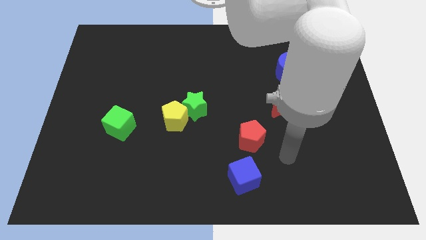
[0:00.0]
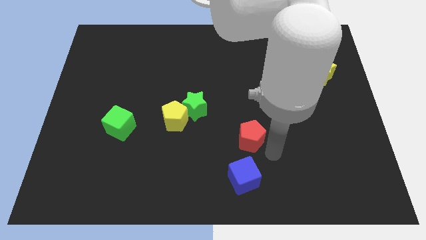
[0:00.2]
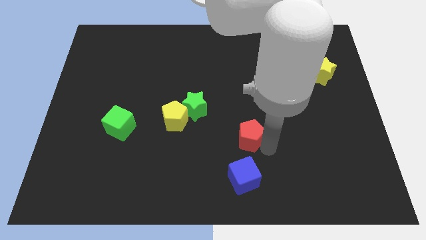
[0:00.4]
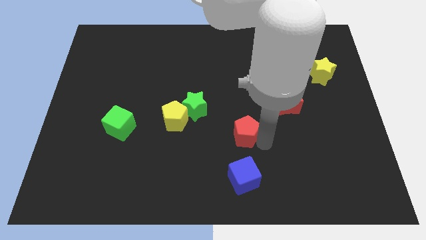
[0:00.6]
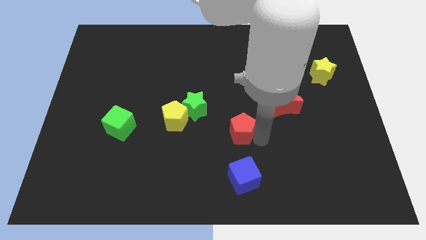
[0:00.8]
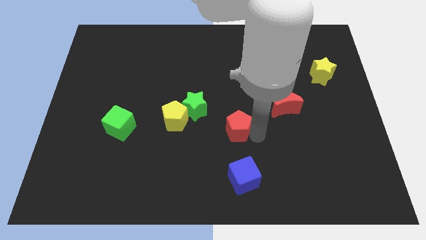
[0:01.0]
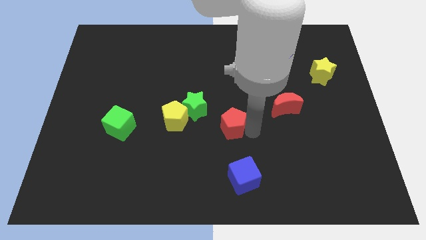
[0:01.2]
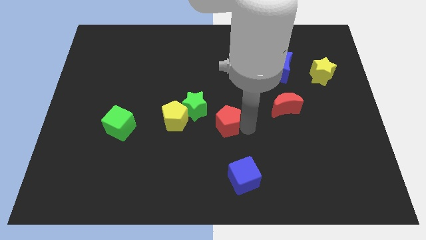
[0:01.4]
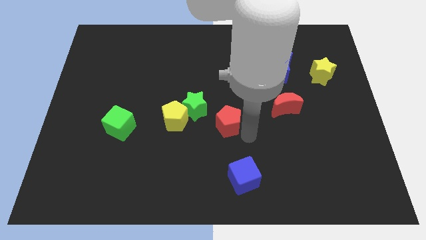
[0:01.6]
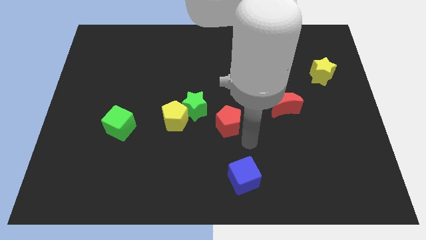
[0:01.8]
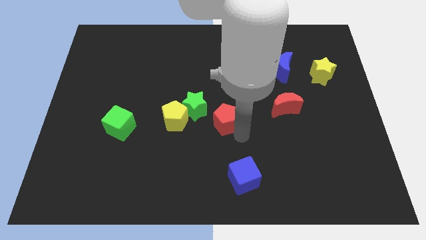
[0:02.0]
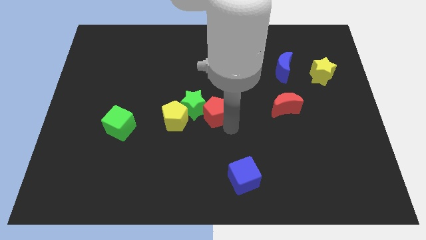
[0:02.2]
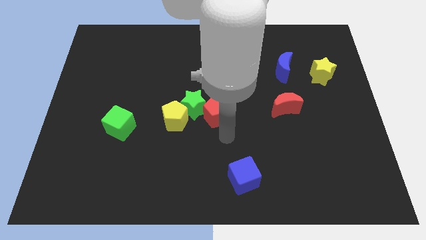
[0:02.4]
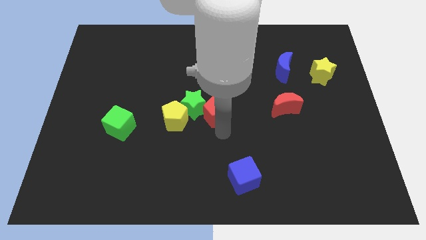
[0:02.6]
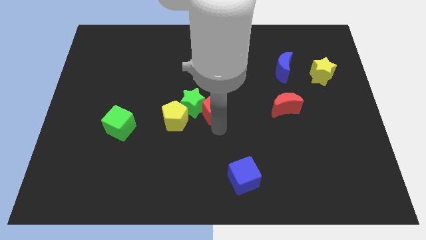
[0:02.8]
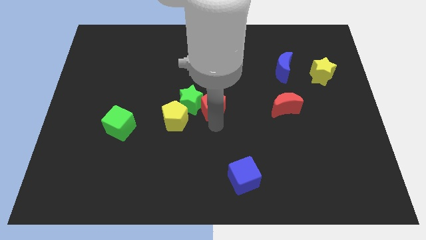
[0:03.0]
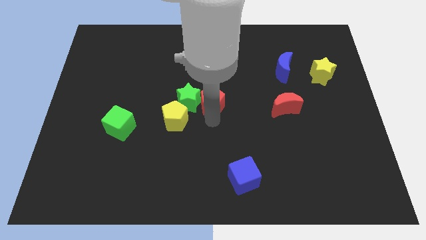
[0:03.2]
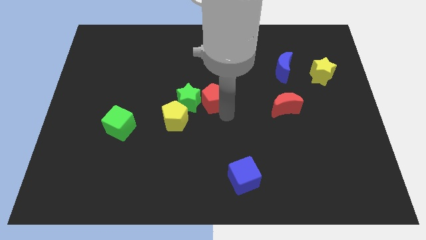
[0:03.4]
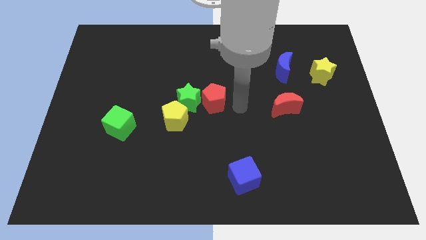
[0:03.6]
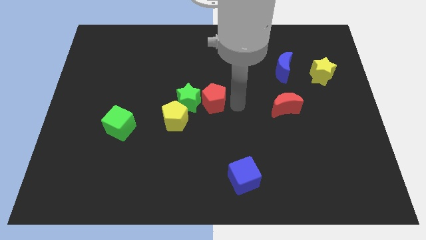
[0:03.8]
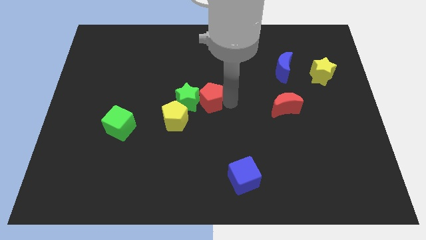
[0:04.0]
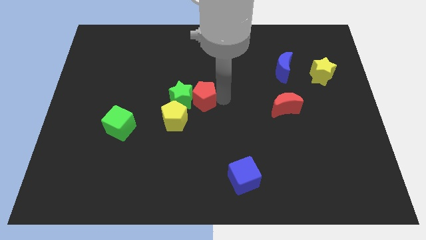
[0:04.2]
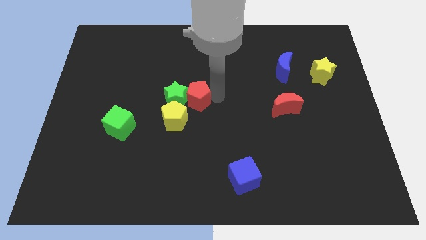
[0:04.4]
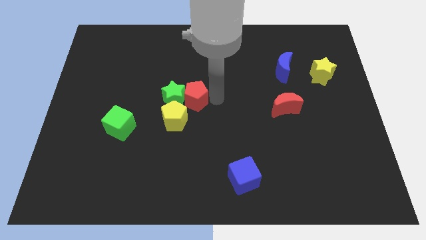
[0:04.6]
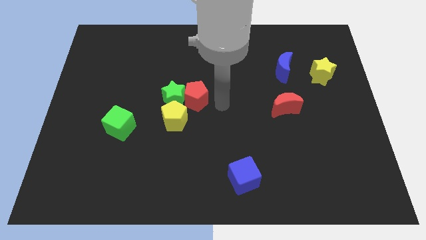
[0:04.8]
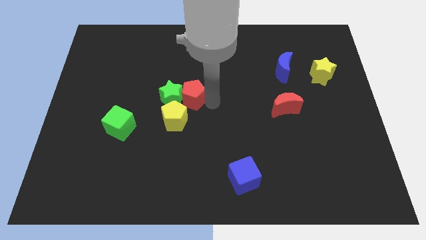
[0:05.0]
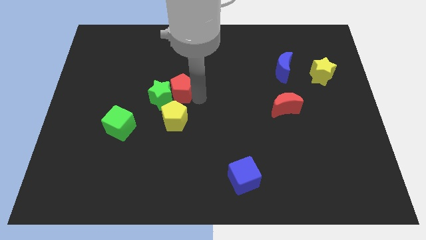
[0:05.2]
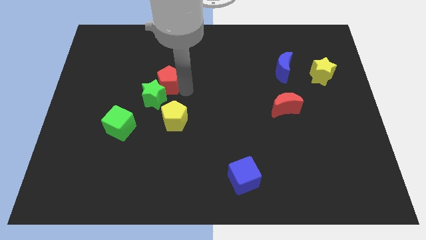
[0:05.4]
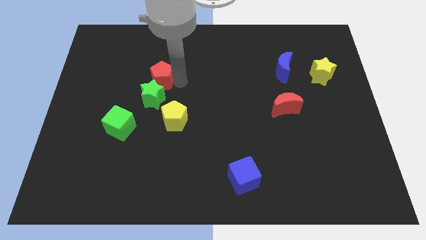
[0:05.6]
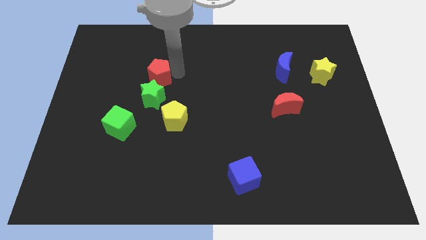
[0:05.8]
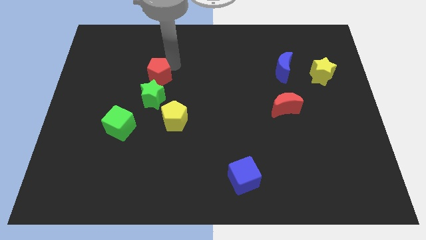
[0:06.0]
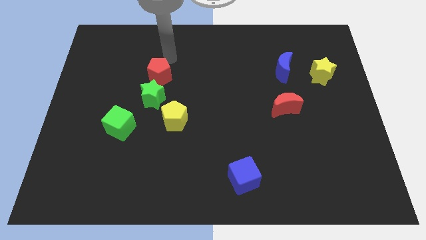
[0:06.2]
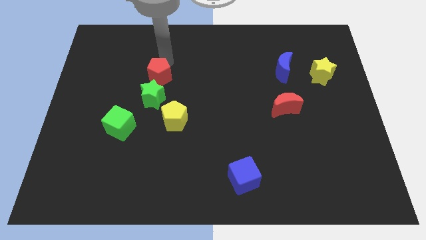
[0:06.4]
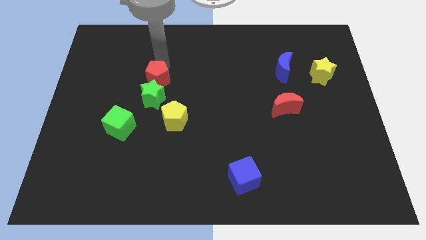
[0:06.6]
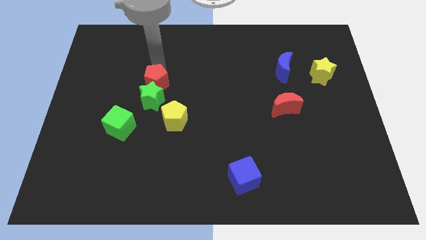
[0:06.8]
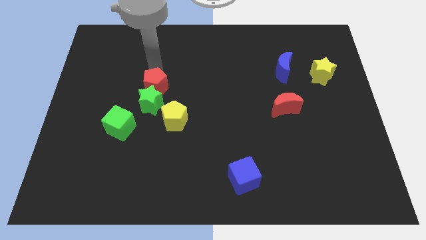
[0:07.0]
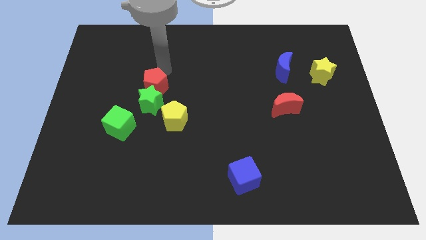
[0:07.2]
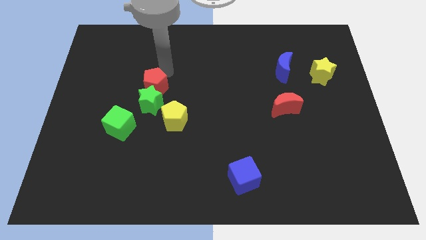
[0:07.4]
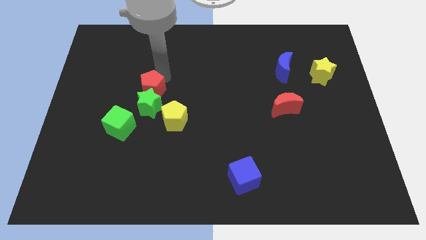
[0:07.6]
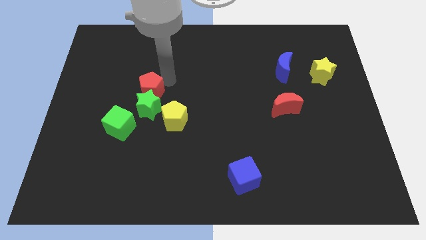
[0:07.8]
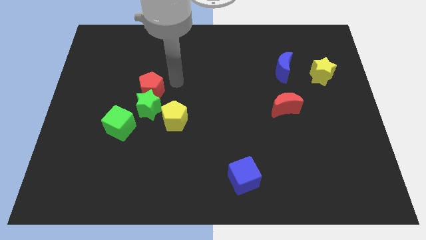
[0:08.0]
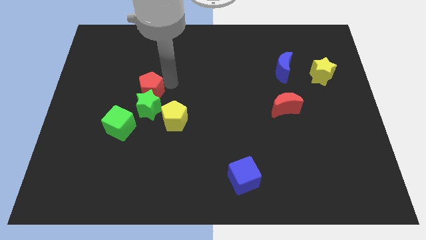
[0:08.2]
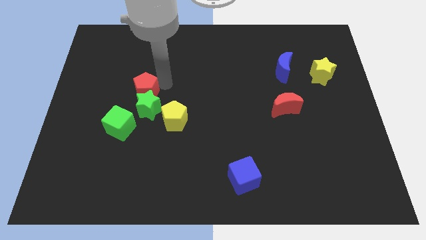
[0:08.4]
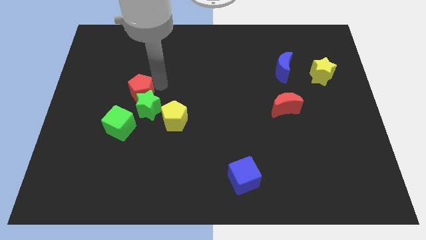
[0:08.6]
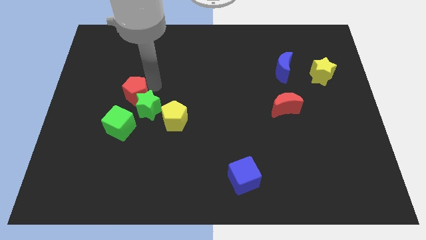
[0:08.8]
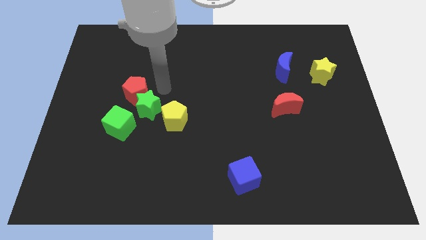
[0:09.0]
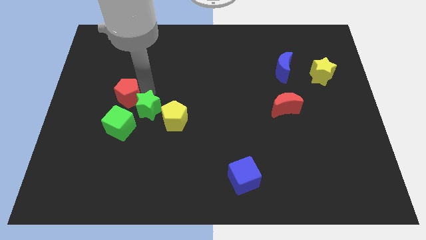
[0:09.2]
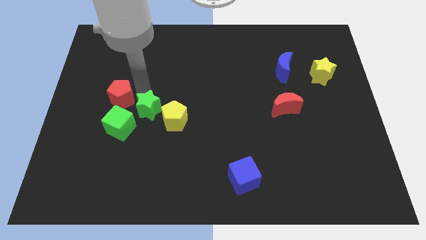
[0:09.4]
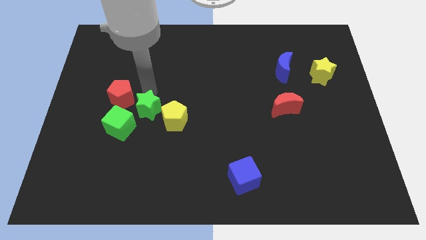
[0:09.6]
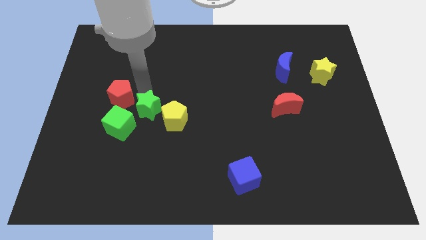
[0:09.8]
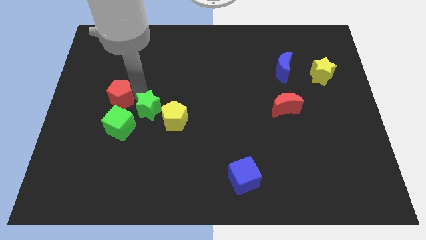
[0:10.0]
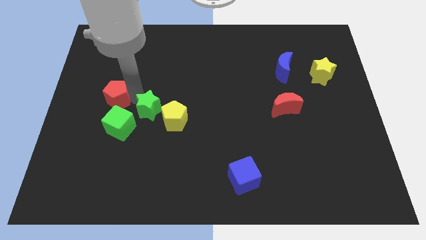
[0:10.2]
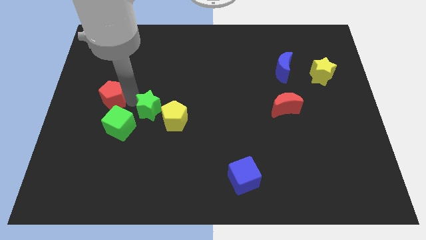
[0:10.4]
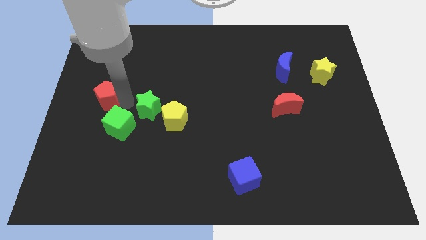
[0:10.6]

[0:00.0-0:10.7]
put the red pentagon to the center left

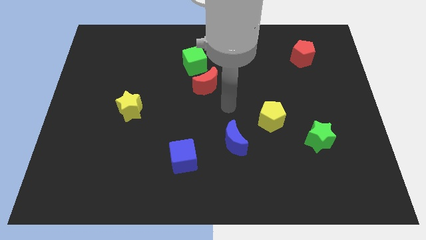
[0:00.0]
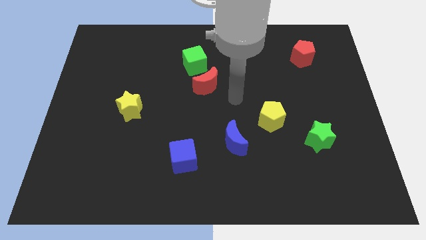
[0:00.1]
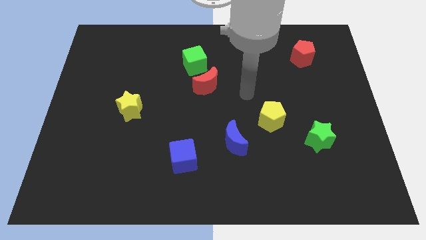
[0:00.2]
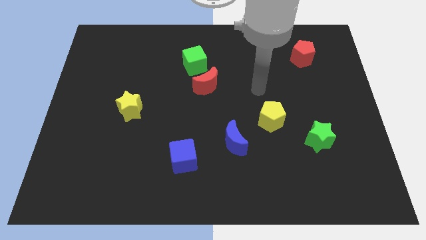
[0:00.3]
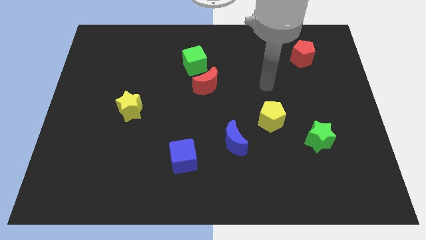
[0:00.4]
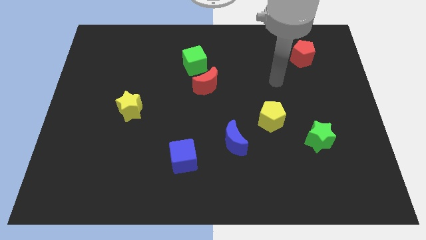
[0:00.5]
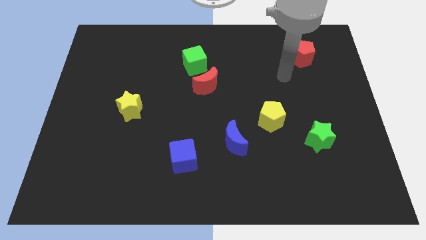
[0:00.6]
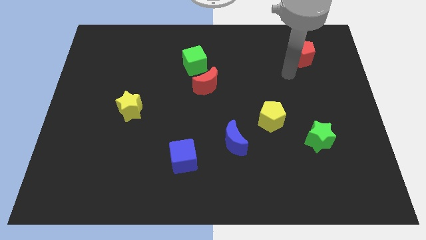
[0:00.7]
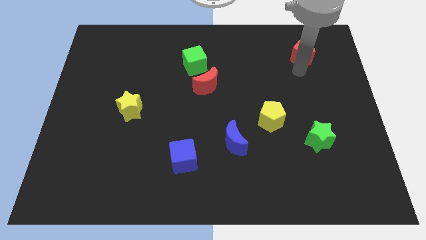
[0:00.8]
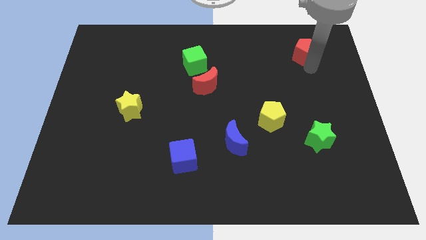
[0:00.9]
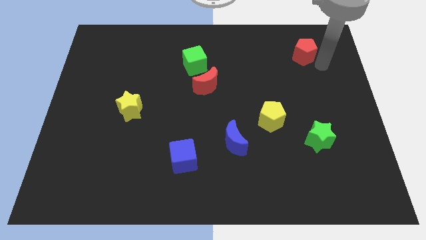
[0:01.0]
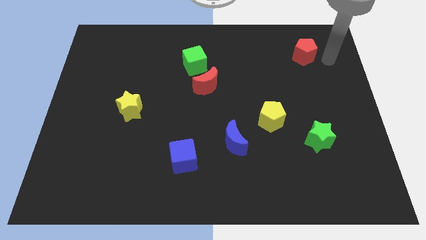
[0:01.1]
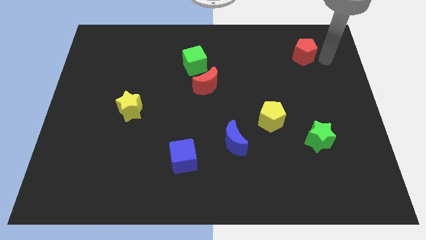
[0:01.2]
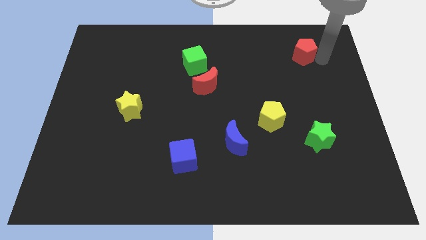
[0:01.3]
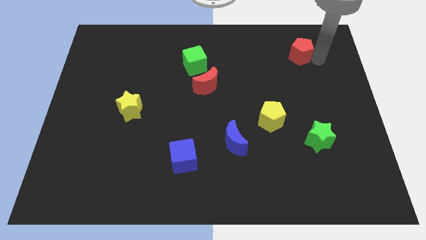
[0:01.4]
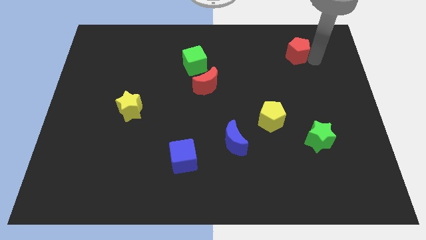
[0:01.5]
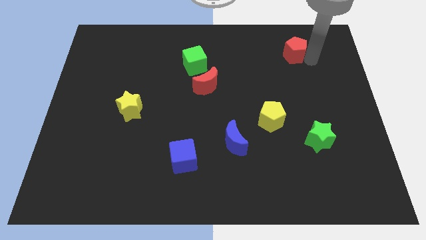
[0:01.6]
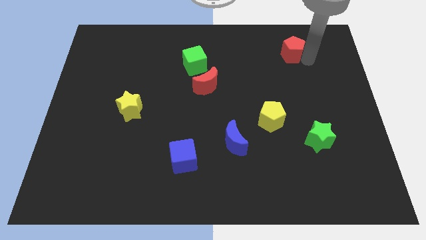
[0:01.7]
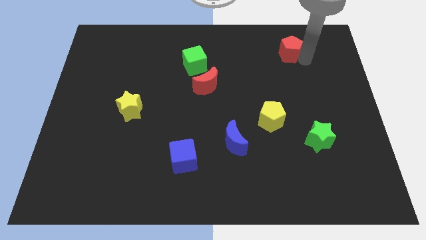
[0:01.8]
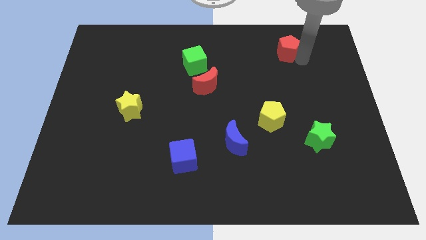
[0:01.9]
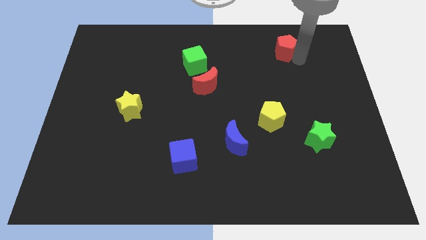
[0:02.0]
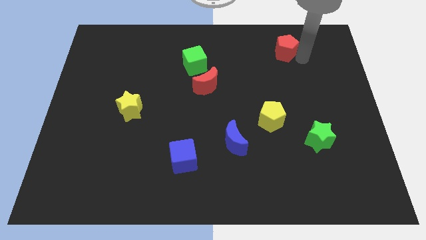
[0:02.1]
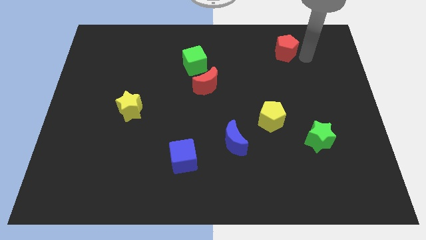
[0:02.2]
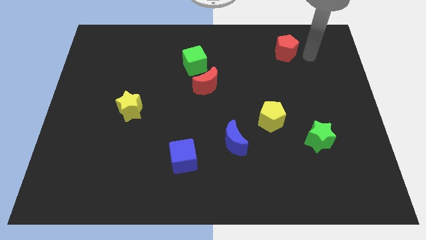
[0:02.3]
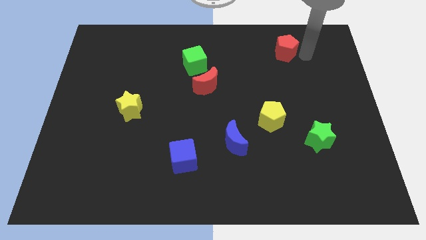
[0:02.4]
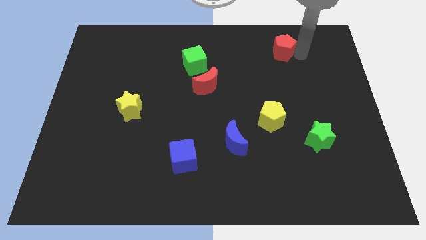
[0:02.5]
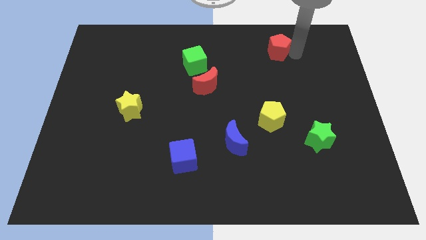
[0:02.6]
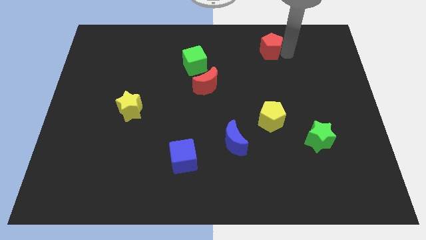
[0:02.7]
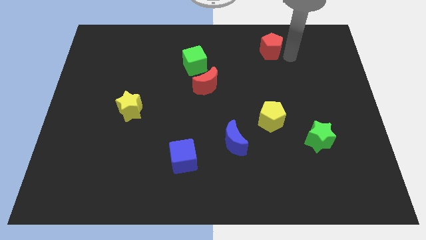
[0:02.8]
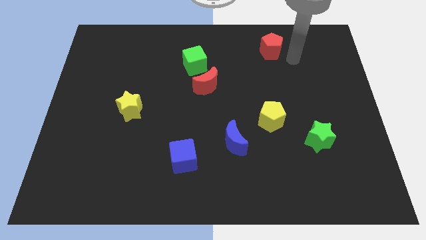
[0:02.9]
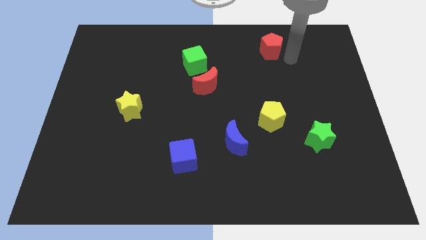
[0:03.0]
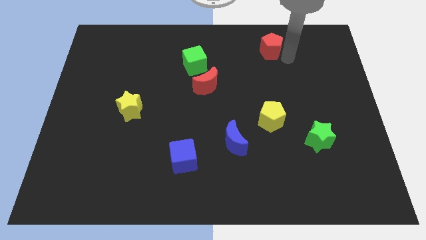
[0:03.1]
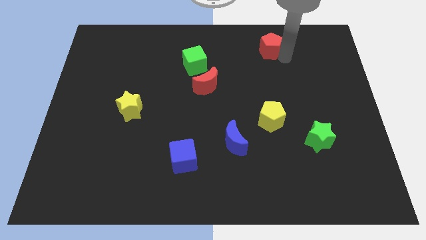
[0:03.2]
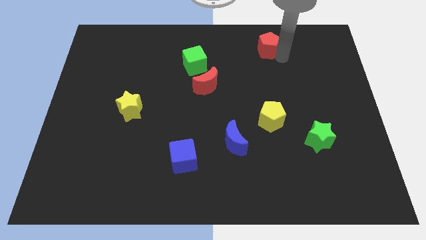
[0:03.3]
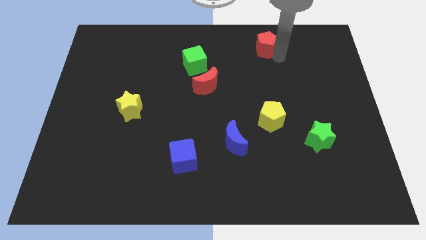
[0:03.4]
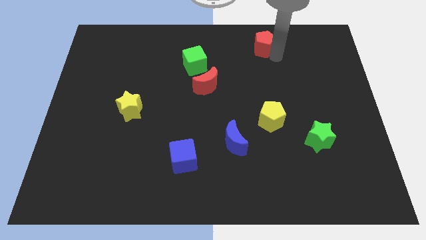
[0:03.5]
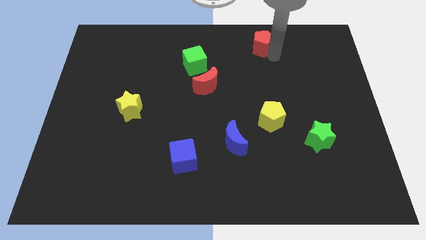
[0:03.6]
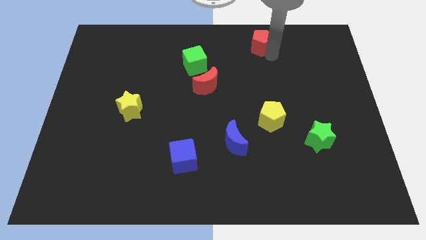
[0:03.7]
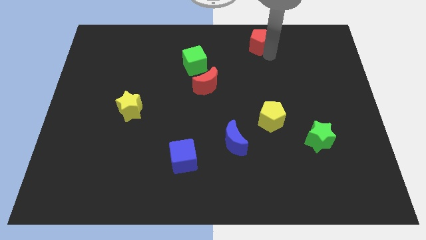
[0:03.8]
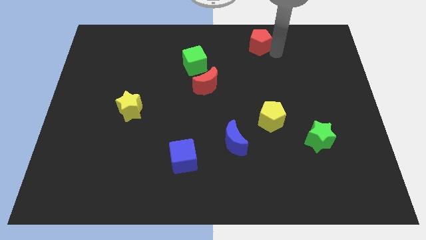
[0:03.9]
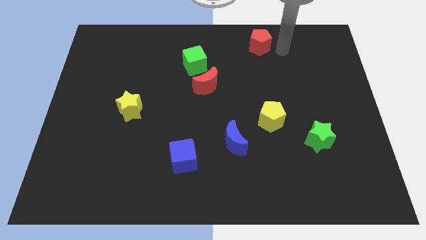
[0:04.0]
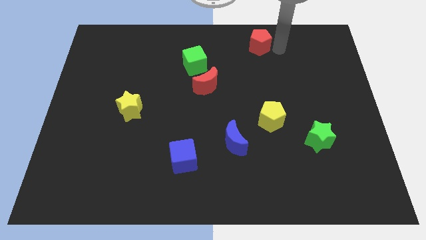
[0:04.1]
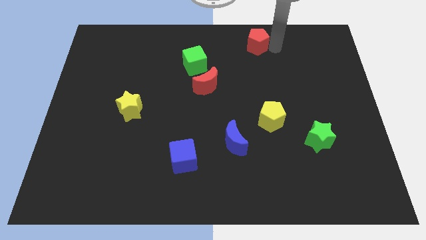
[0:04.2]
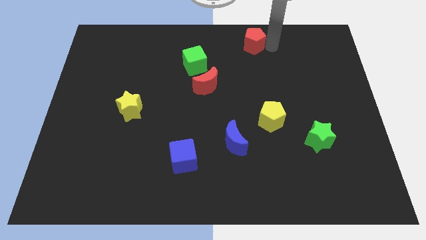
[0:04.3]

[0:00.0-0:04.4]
move the red pentagon to the top side
